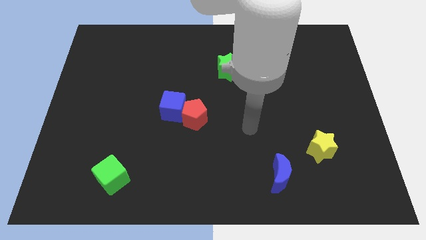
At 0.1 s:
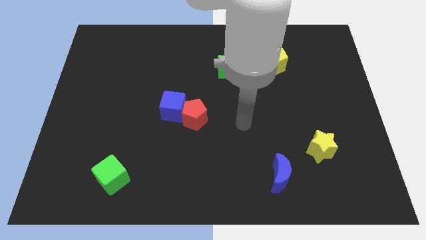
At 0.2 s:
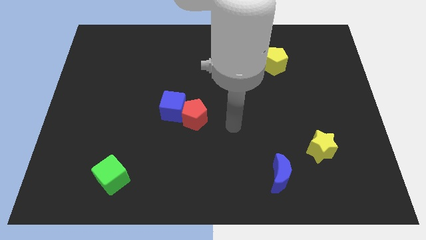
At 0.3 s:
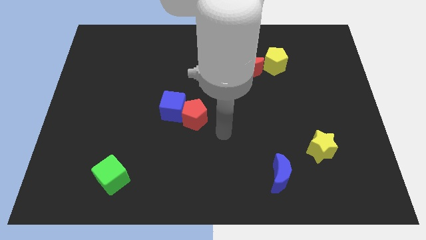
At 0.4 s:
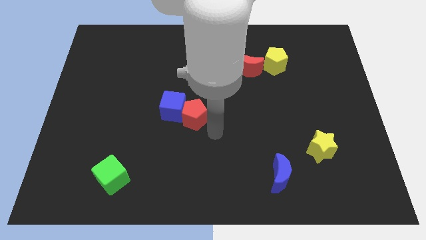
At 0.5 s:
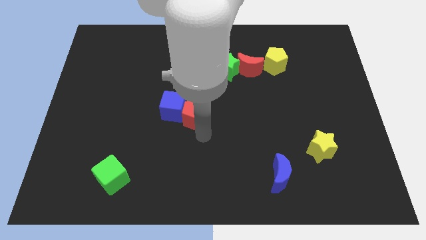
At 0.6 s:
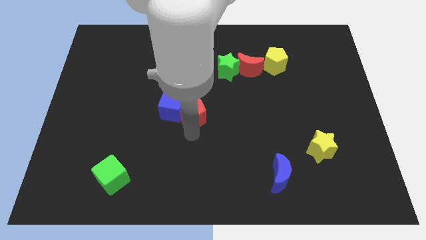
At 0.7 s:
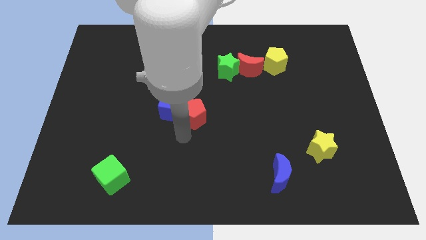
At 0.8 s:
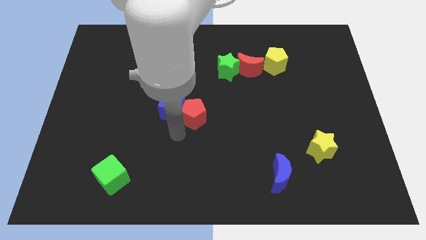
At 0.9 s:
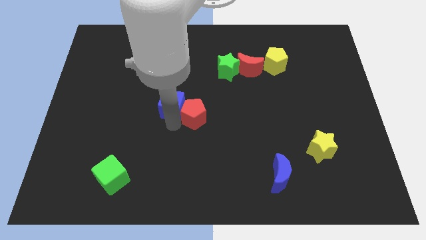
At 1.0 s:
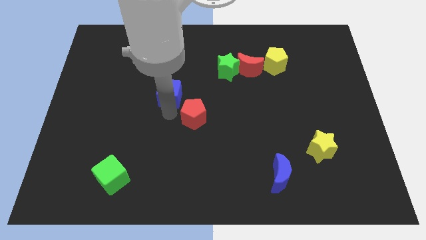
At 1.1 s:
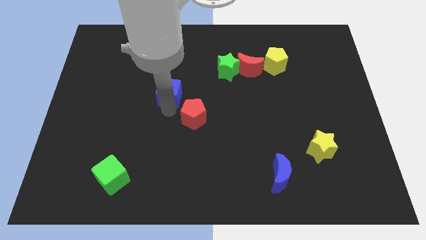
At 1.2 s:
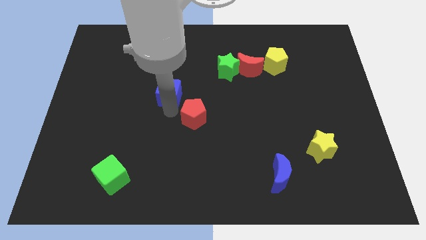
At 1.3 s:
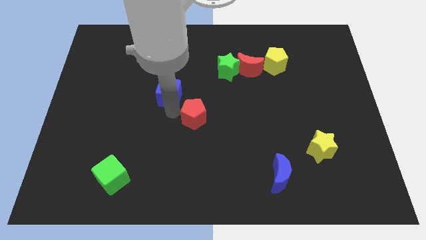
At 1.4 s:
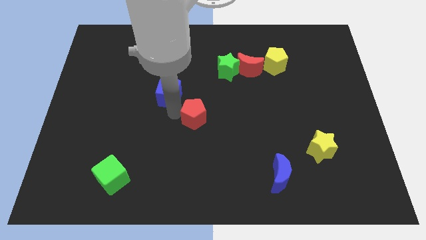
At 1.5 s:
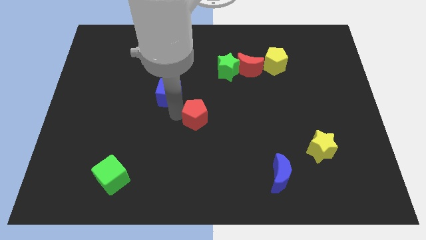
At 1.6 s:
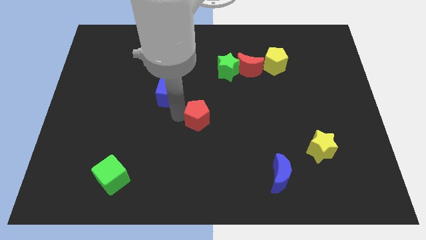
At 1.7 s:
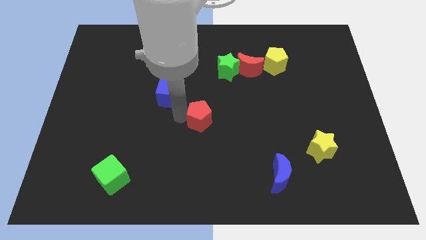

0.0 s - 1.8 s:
pull the red pentagon apart from the blue cube

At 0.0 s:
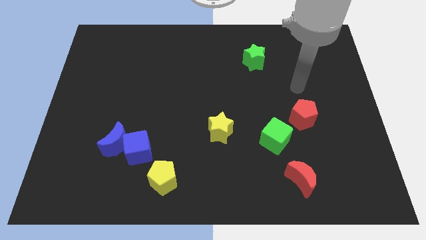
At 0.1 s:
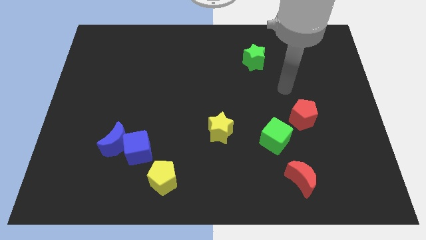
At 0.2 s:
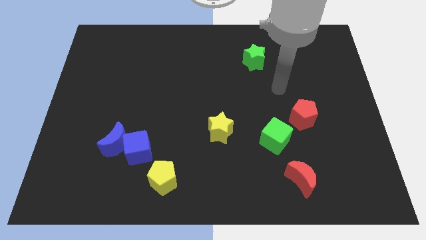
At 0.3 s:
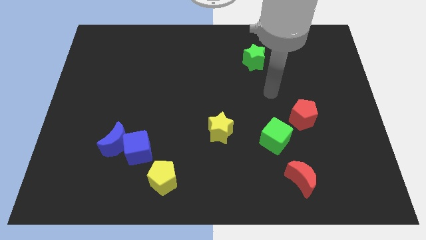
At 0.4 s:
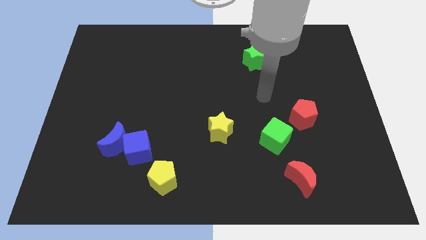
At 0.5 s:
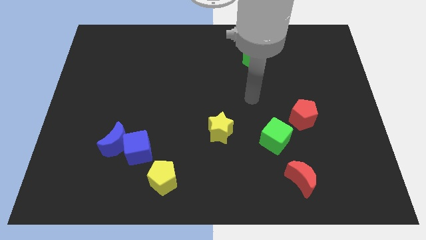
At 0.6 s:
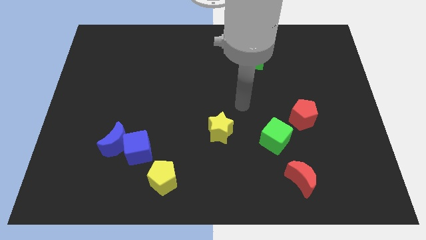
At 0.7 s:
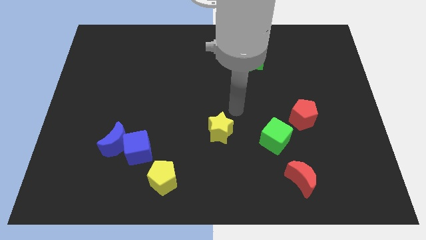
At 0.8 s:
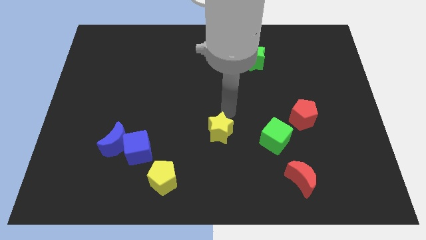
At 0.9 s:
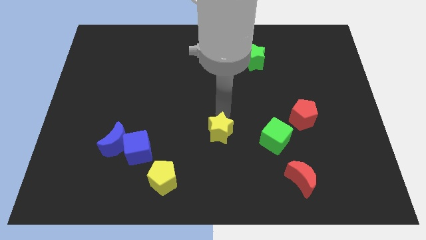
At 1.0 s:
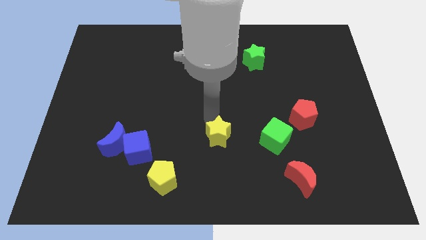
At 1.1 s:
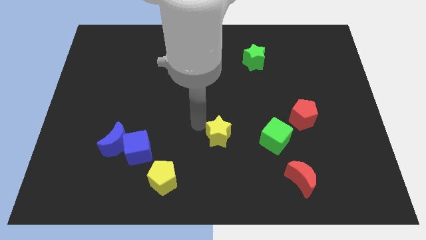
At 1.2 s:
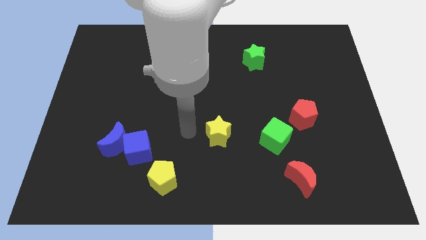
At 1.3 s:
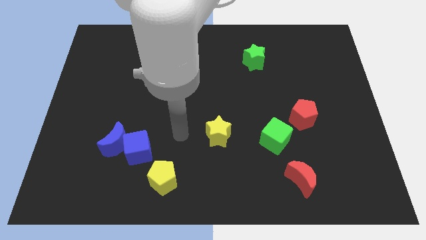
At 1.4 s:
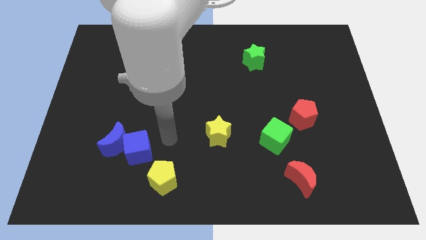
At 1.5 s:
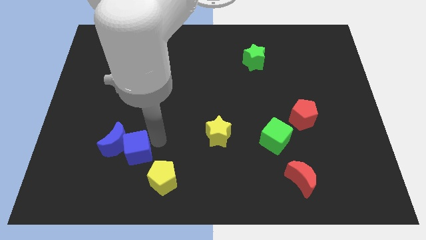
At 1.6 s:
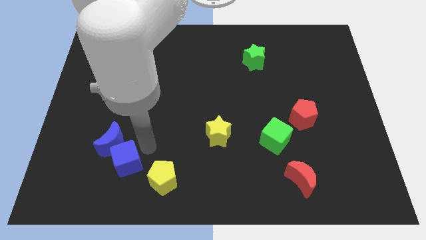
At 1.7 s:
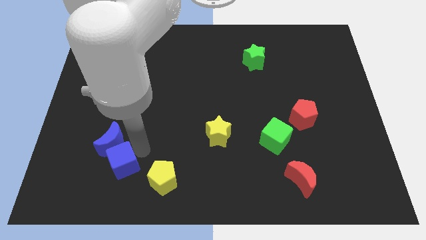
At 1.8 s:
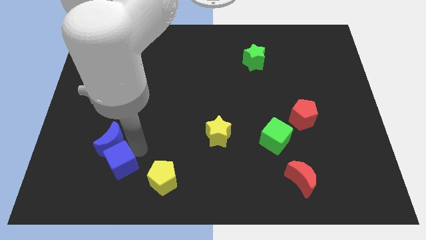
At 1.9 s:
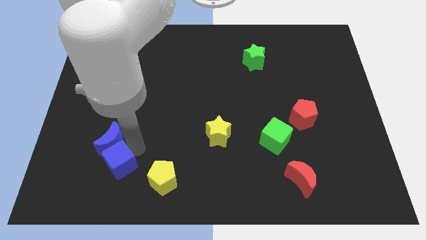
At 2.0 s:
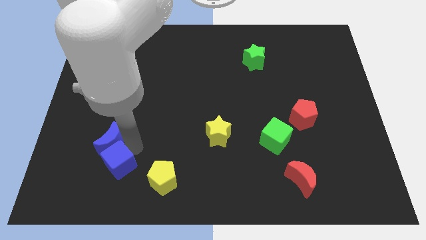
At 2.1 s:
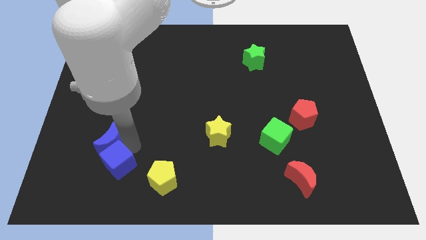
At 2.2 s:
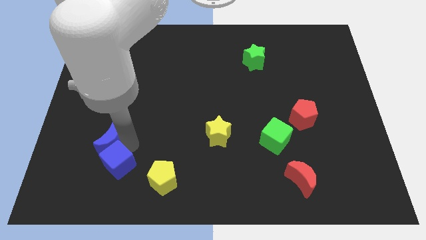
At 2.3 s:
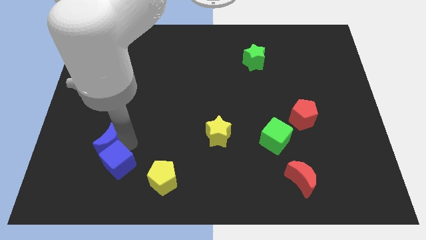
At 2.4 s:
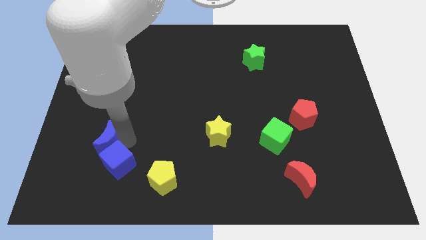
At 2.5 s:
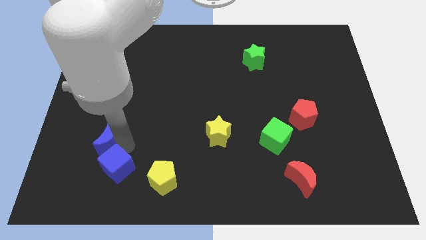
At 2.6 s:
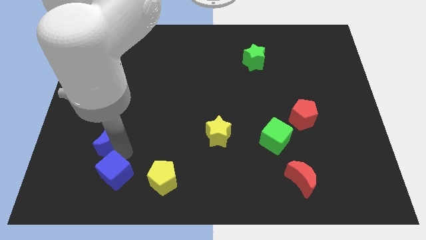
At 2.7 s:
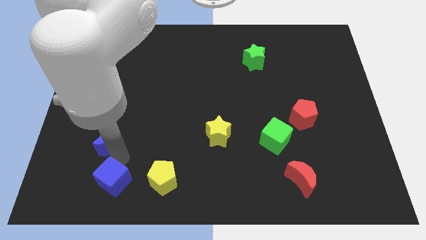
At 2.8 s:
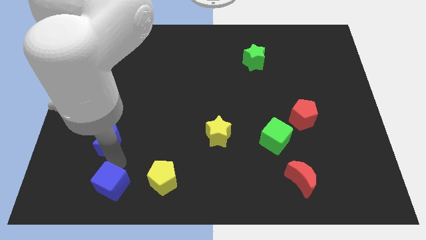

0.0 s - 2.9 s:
pull the blue moon apart from the blue cube

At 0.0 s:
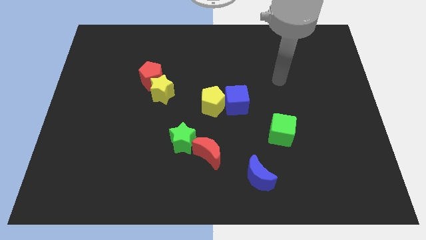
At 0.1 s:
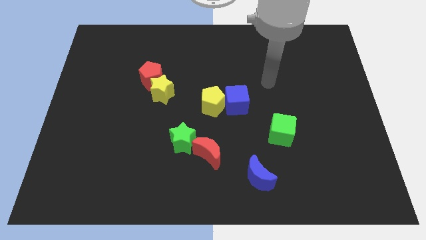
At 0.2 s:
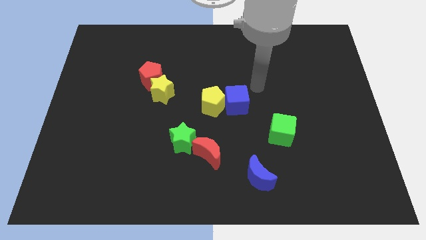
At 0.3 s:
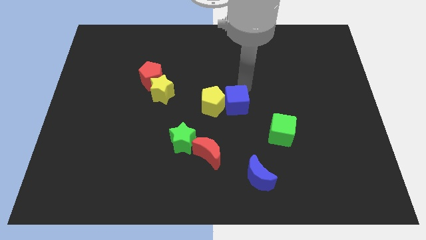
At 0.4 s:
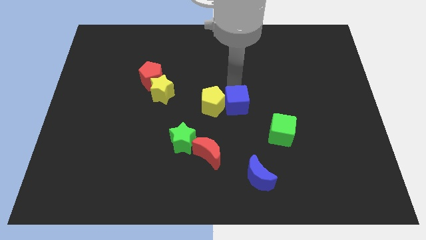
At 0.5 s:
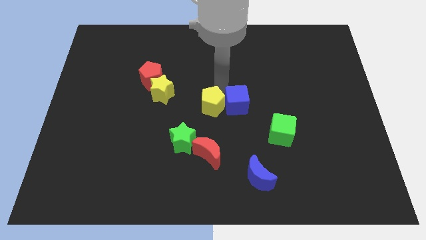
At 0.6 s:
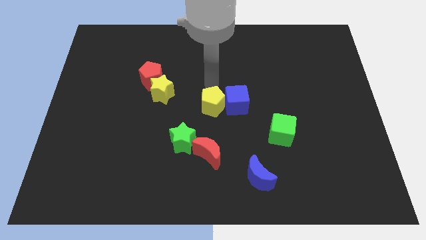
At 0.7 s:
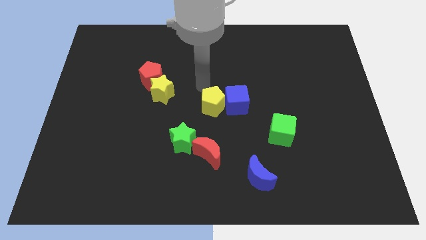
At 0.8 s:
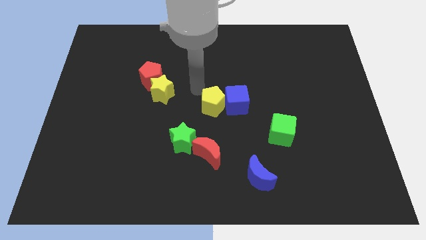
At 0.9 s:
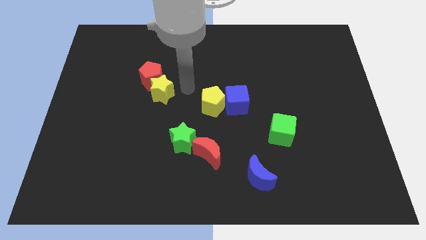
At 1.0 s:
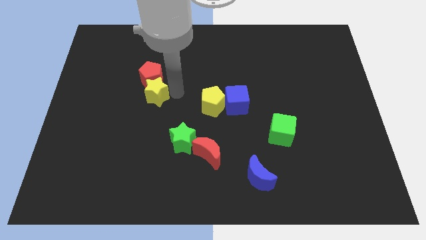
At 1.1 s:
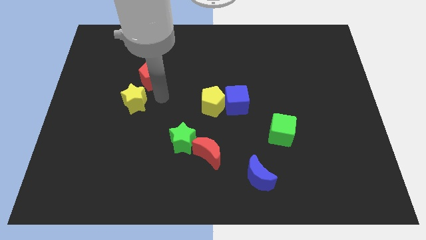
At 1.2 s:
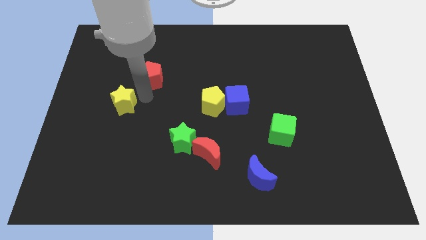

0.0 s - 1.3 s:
separate the red pentagon from the yellow star

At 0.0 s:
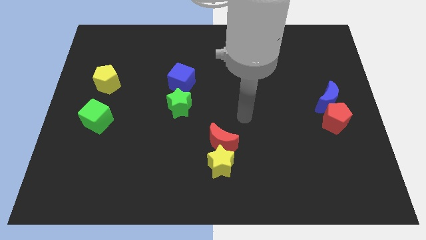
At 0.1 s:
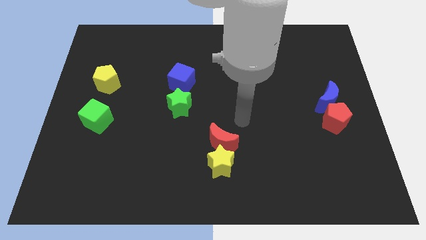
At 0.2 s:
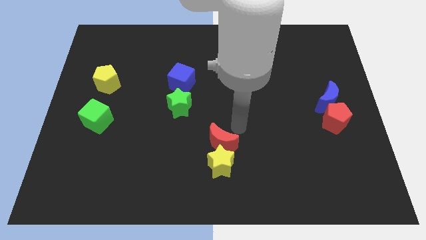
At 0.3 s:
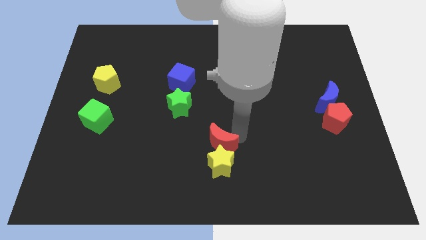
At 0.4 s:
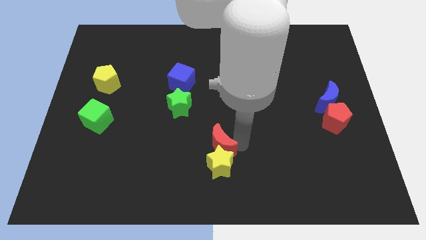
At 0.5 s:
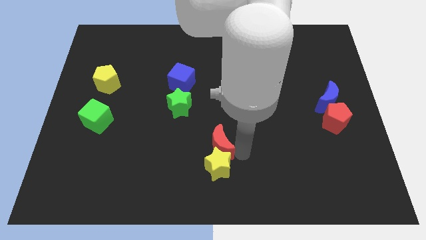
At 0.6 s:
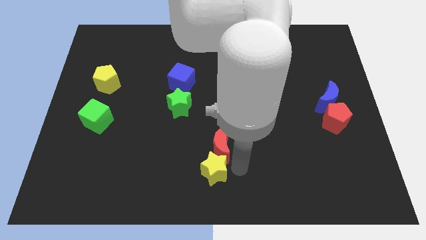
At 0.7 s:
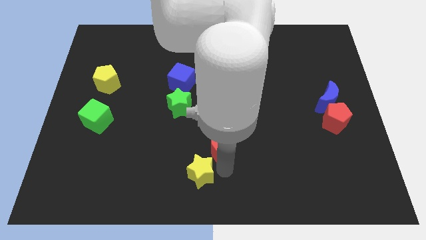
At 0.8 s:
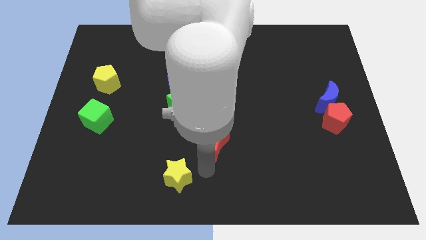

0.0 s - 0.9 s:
pull the red moon apart from the yellow star

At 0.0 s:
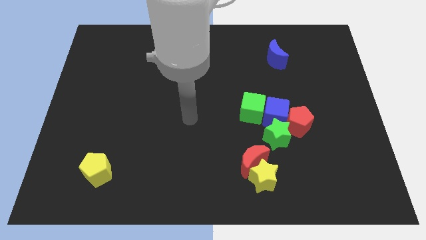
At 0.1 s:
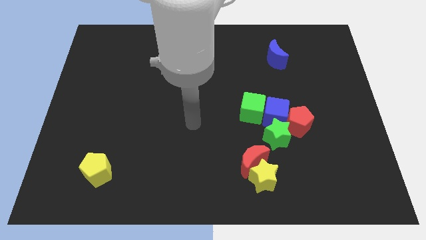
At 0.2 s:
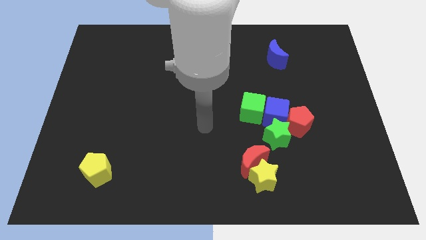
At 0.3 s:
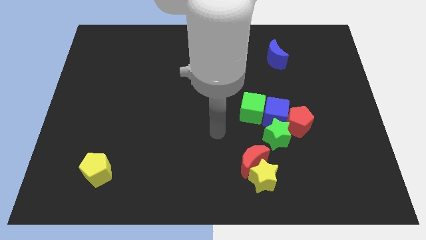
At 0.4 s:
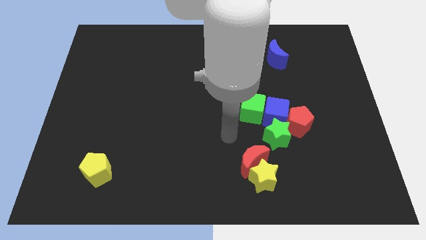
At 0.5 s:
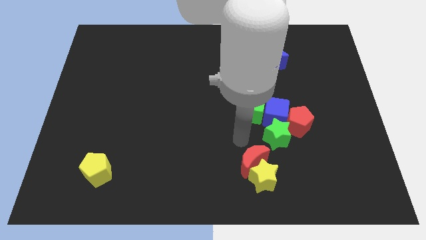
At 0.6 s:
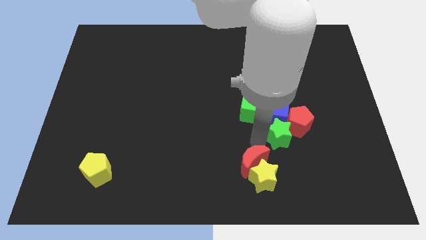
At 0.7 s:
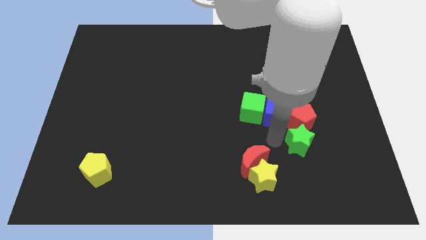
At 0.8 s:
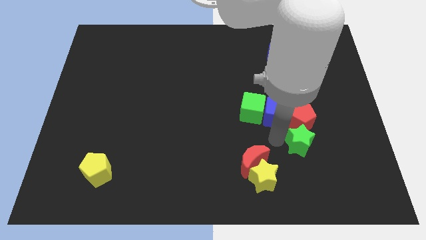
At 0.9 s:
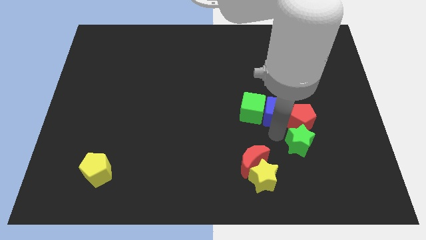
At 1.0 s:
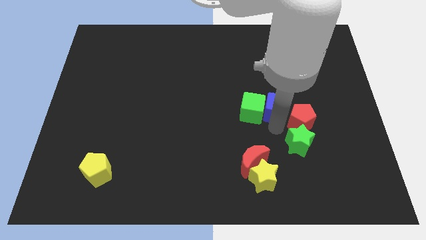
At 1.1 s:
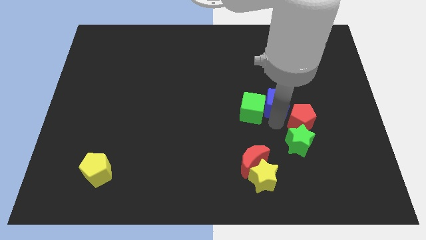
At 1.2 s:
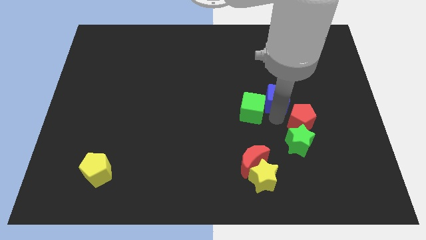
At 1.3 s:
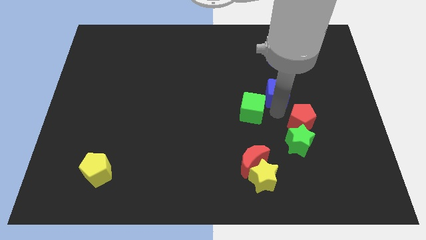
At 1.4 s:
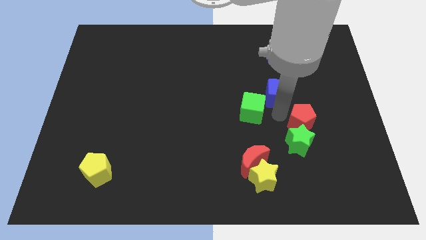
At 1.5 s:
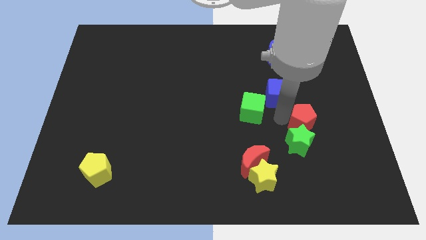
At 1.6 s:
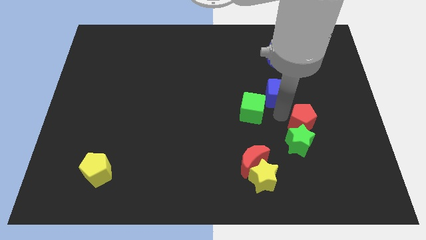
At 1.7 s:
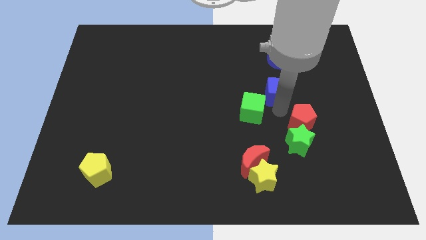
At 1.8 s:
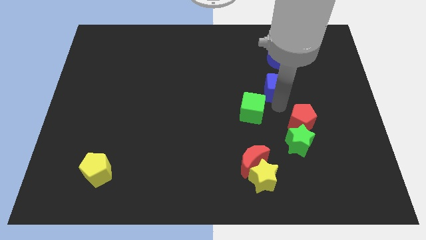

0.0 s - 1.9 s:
separate the blue cube from the group of blocks

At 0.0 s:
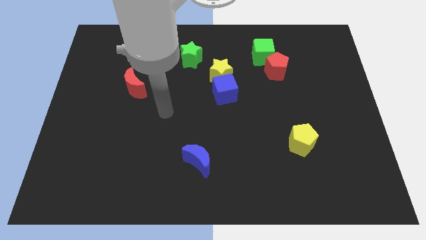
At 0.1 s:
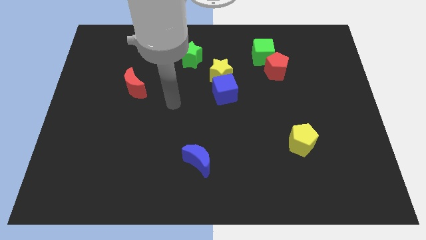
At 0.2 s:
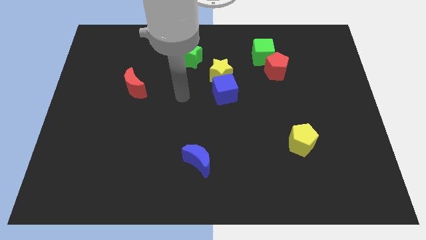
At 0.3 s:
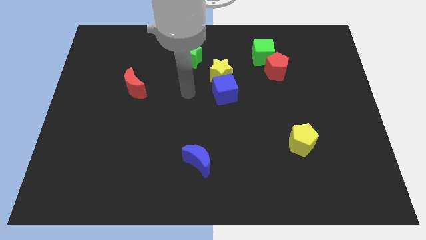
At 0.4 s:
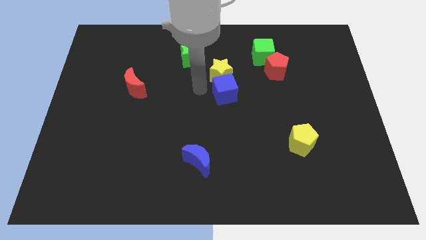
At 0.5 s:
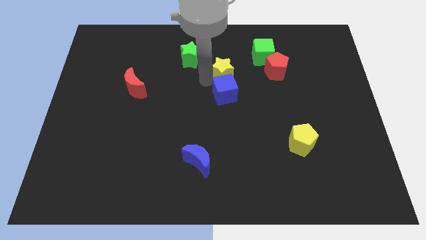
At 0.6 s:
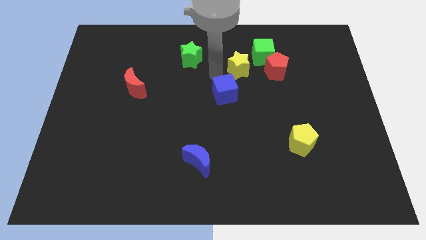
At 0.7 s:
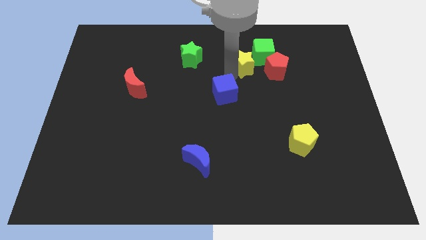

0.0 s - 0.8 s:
pull the blue cube apart from the yellow star
